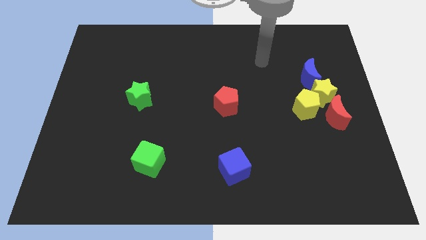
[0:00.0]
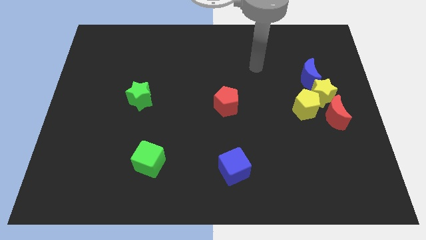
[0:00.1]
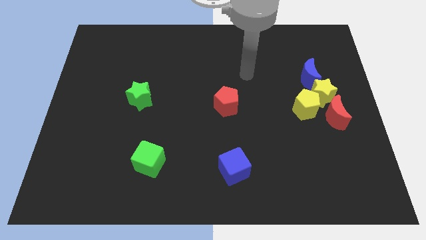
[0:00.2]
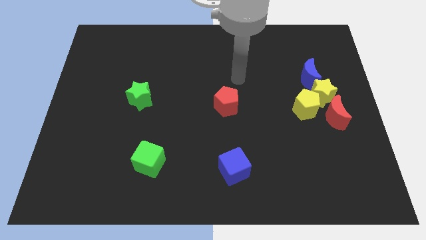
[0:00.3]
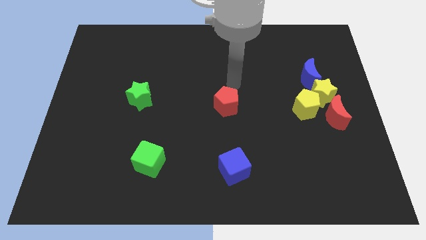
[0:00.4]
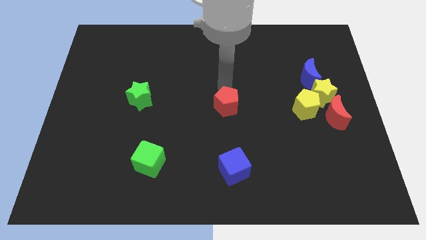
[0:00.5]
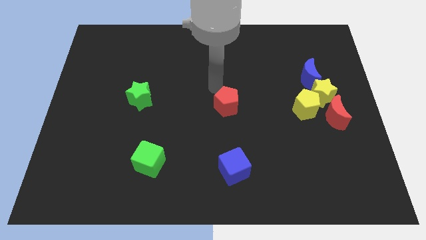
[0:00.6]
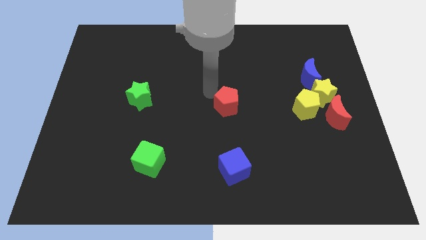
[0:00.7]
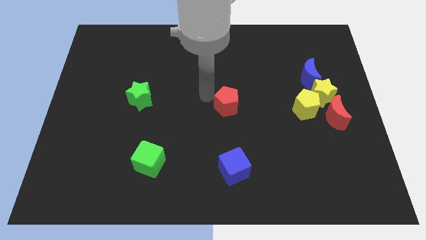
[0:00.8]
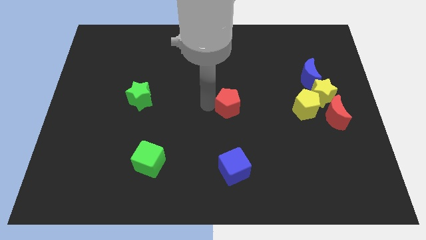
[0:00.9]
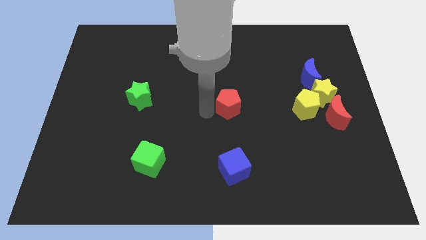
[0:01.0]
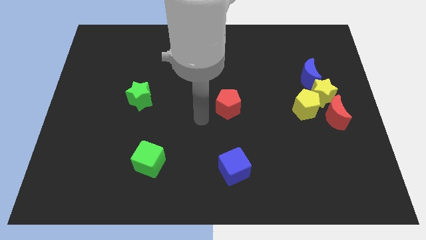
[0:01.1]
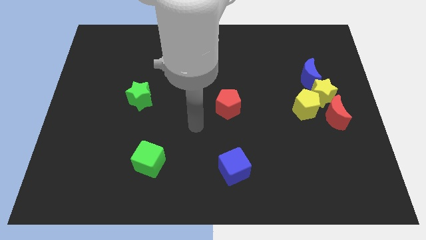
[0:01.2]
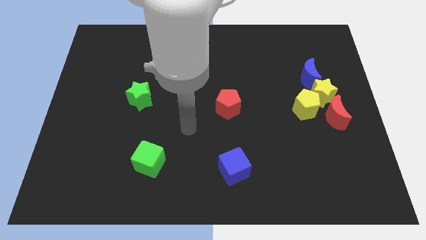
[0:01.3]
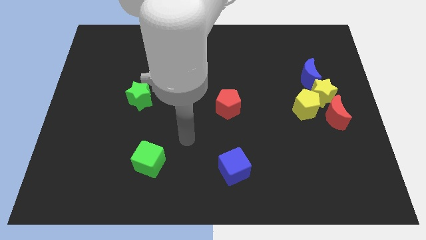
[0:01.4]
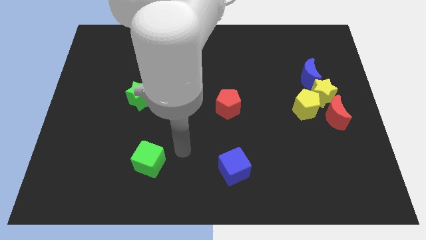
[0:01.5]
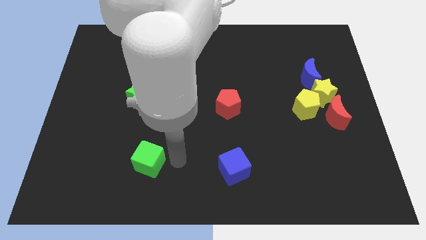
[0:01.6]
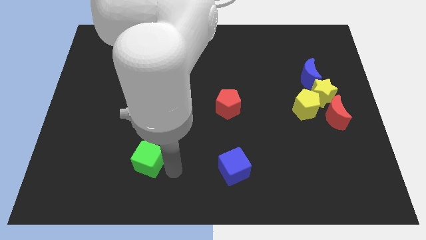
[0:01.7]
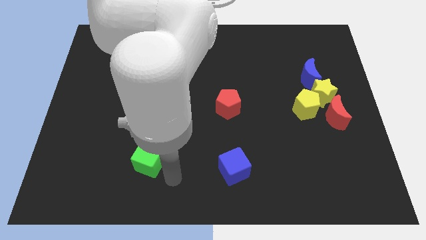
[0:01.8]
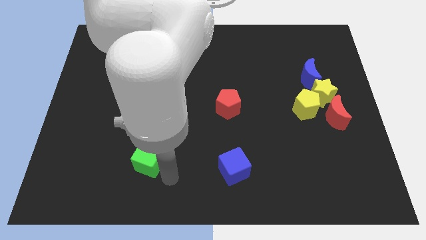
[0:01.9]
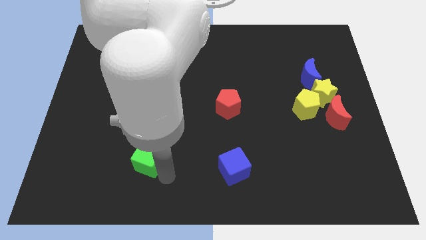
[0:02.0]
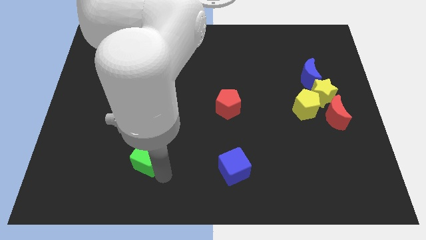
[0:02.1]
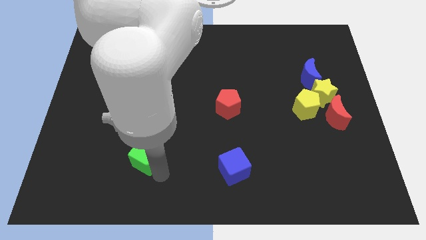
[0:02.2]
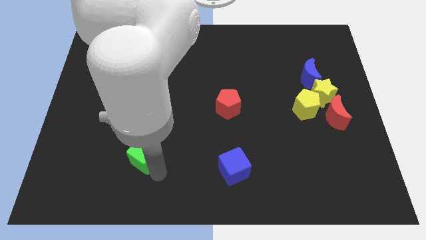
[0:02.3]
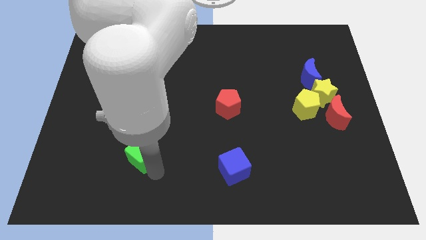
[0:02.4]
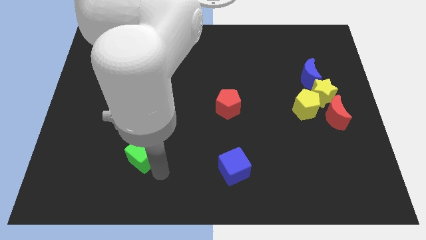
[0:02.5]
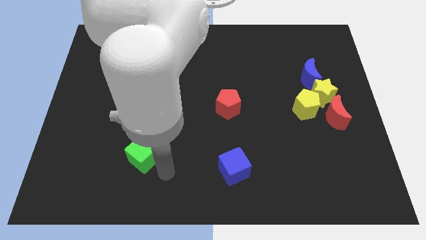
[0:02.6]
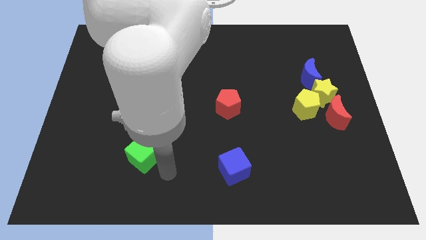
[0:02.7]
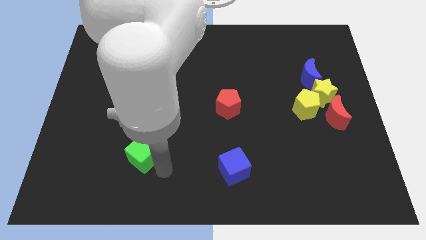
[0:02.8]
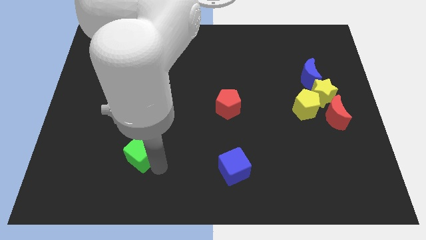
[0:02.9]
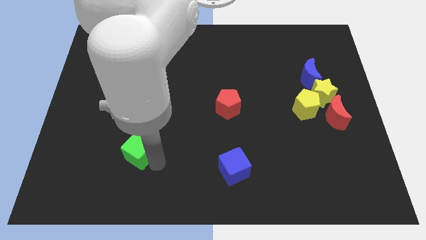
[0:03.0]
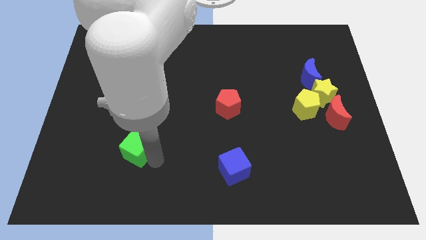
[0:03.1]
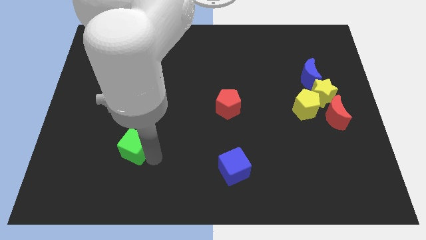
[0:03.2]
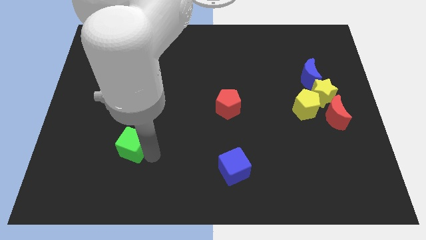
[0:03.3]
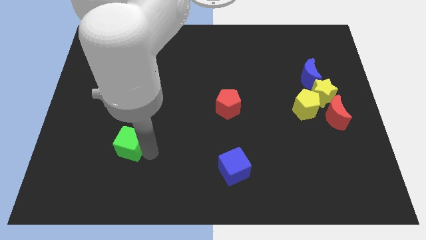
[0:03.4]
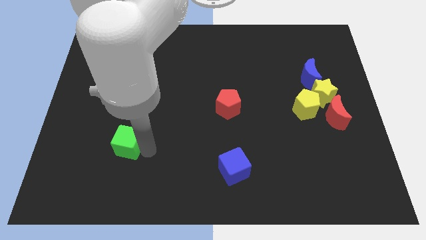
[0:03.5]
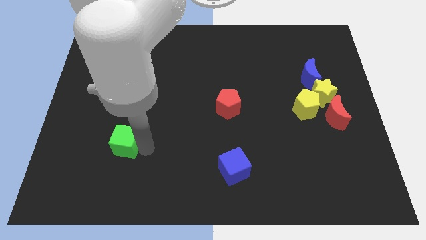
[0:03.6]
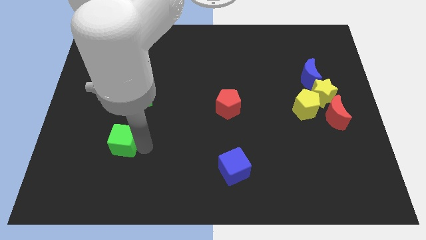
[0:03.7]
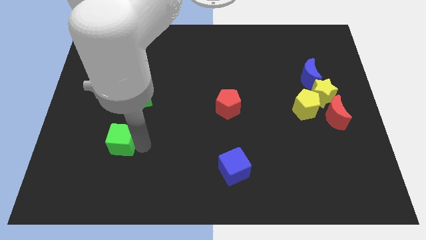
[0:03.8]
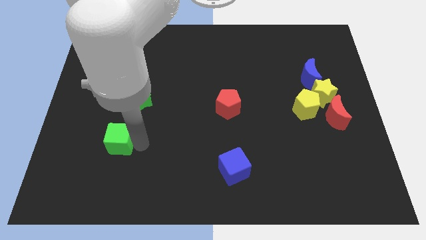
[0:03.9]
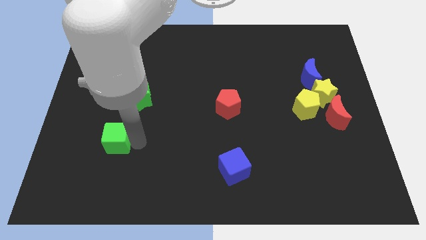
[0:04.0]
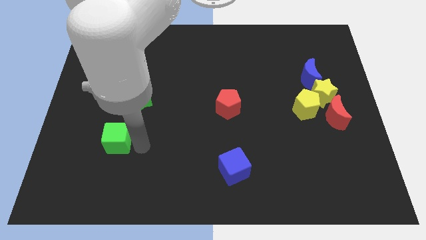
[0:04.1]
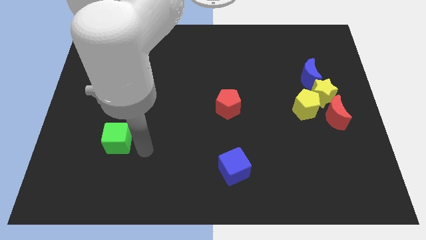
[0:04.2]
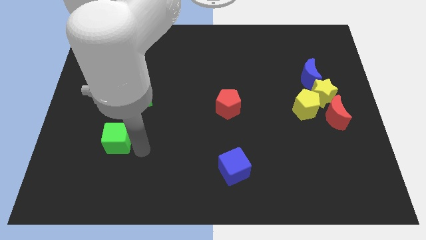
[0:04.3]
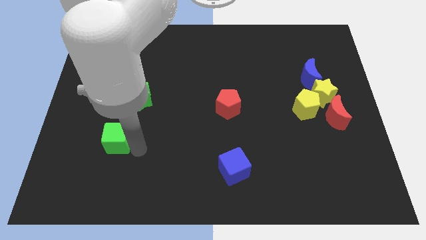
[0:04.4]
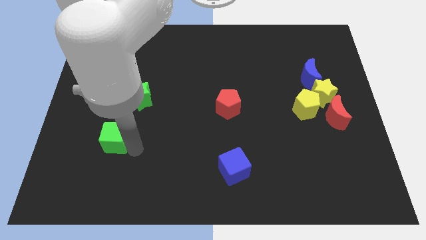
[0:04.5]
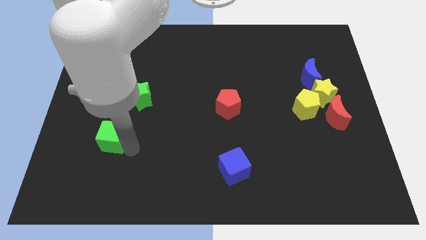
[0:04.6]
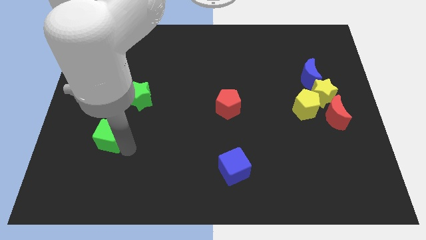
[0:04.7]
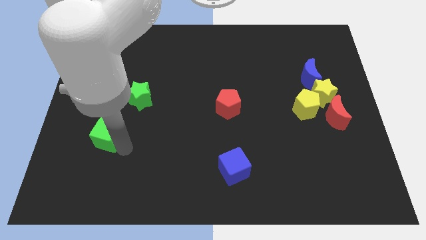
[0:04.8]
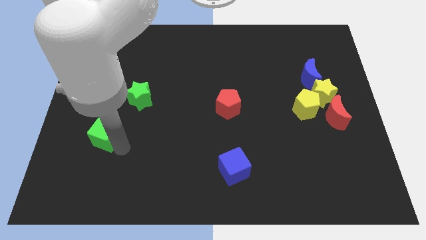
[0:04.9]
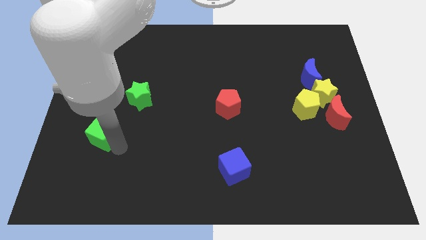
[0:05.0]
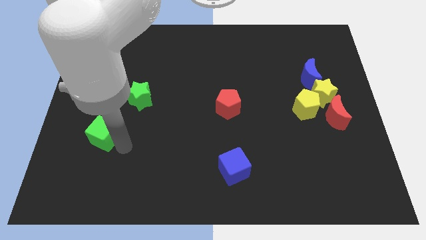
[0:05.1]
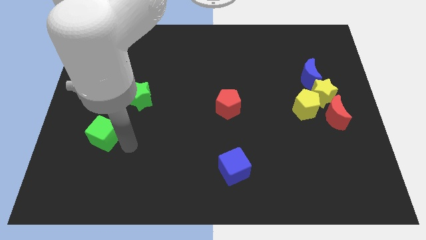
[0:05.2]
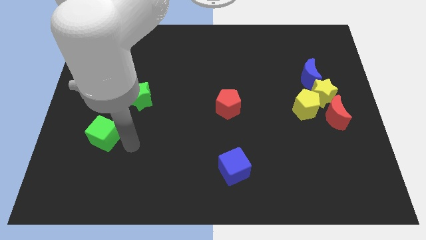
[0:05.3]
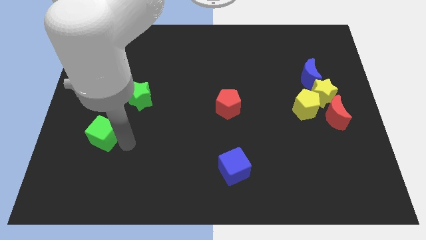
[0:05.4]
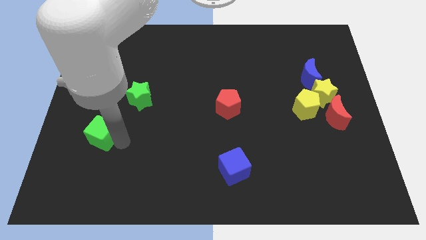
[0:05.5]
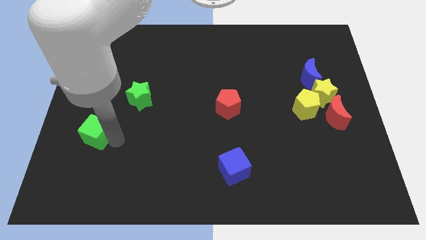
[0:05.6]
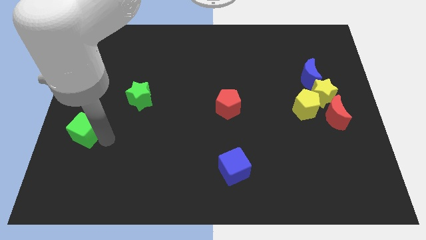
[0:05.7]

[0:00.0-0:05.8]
move the green cube to the center left
